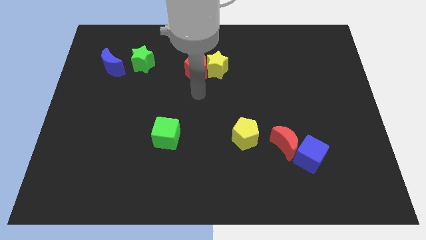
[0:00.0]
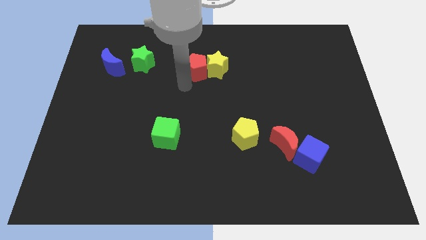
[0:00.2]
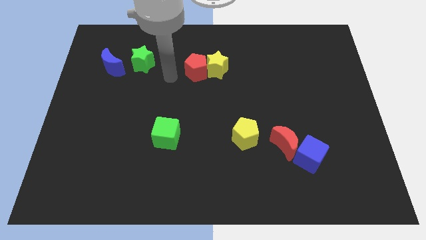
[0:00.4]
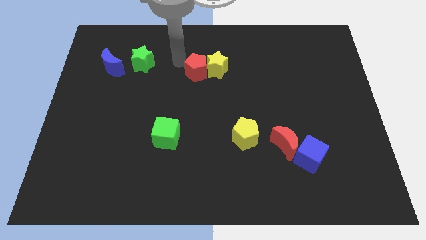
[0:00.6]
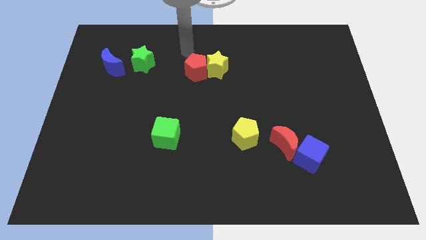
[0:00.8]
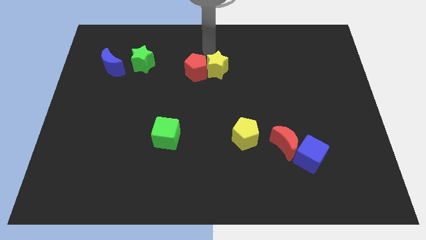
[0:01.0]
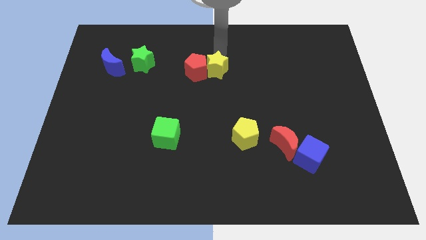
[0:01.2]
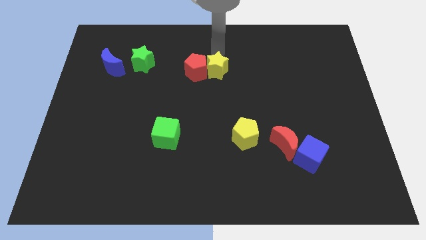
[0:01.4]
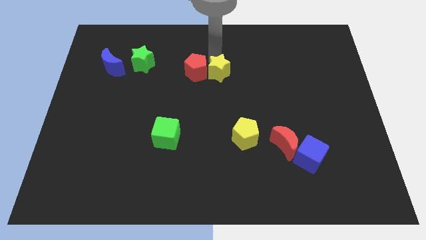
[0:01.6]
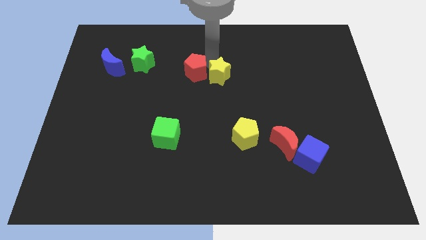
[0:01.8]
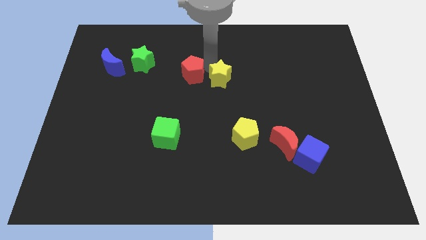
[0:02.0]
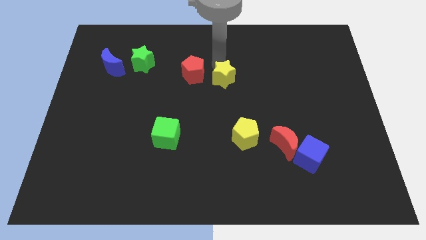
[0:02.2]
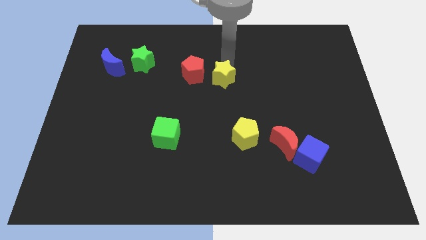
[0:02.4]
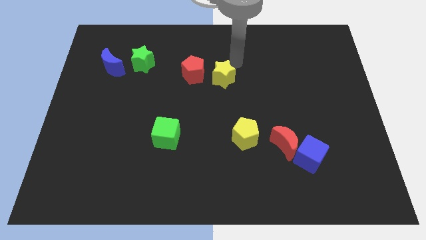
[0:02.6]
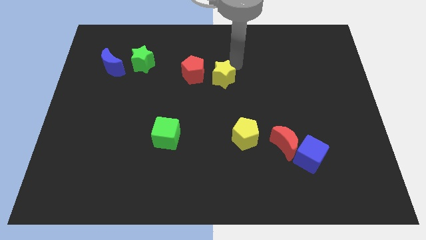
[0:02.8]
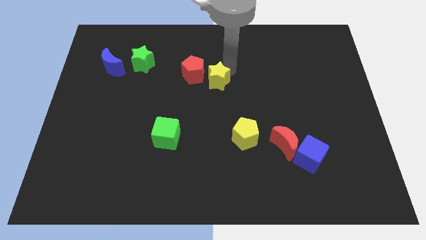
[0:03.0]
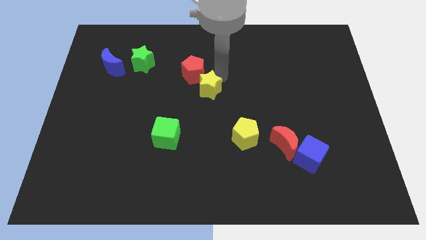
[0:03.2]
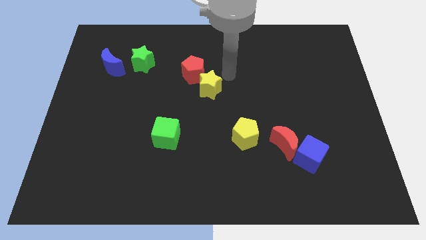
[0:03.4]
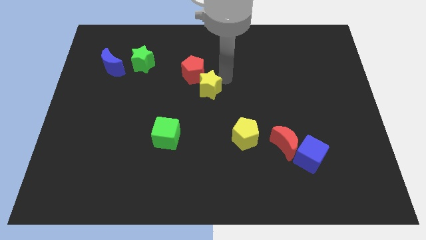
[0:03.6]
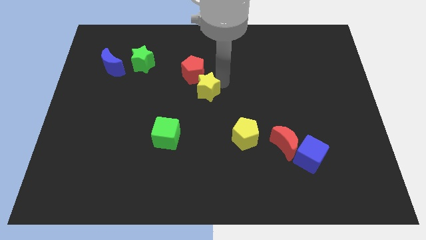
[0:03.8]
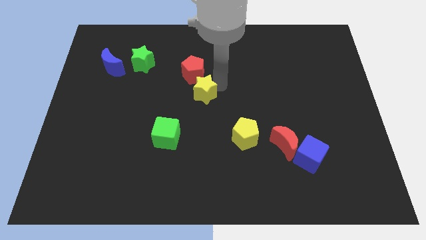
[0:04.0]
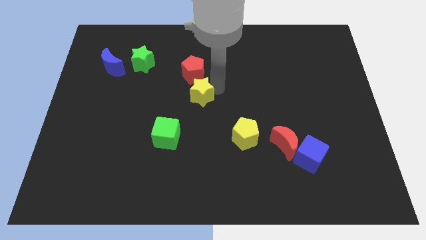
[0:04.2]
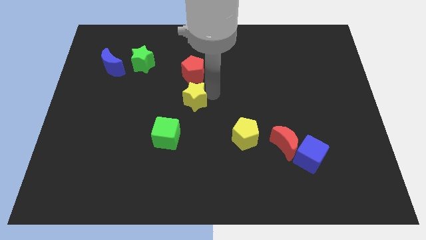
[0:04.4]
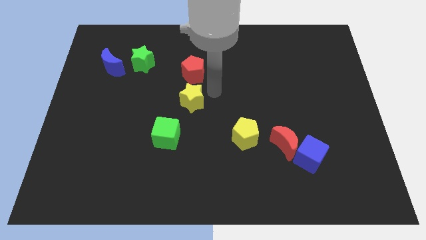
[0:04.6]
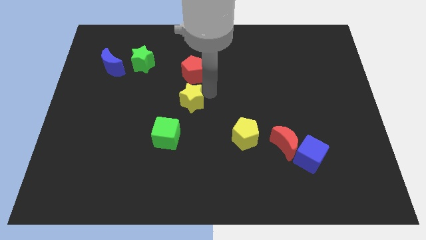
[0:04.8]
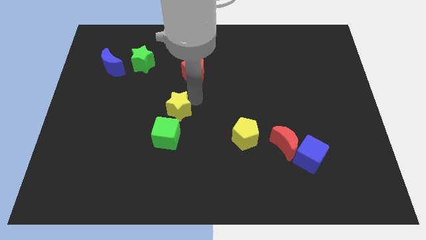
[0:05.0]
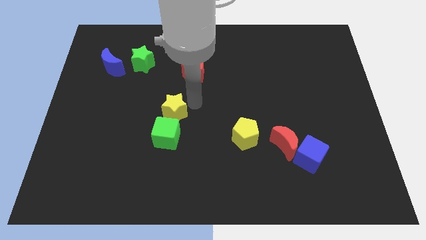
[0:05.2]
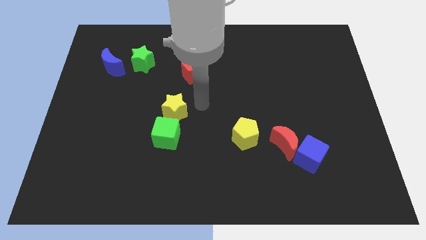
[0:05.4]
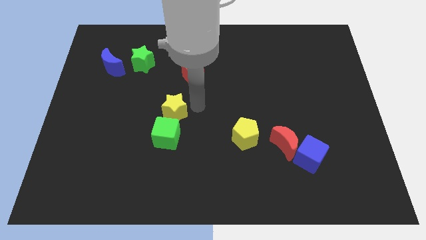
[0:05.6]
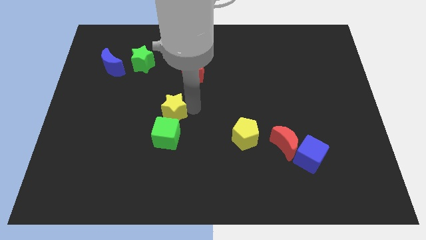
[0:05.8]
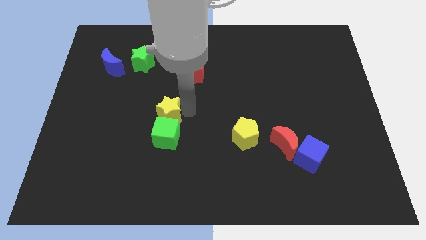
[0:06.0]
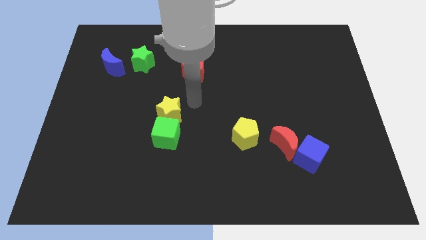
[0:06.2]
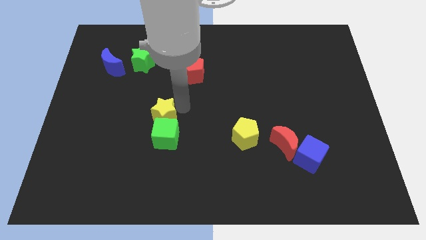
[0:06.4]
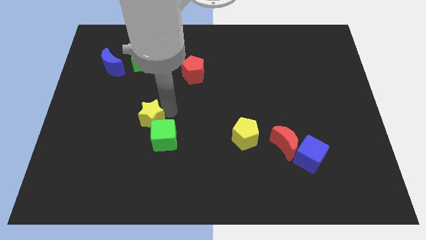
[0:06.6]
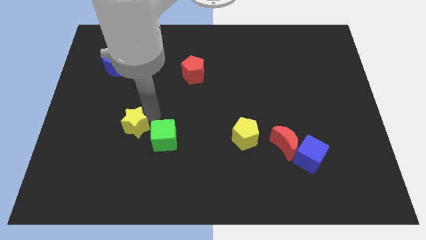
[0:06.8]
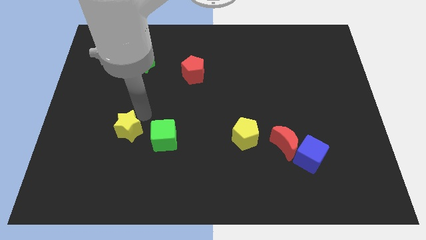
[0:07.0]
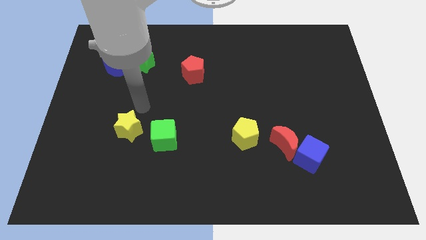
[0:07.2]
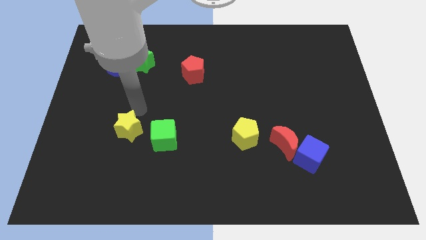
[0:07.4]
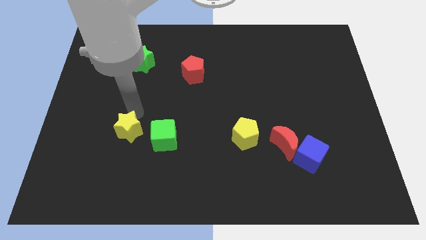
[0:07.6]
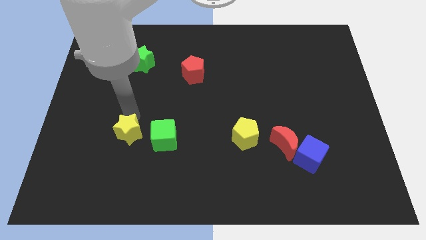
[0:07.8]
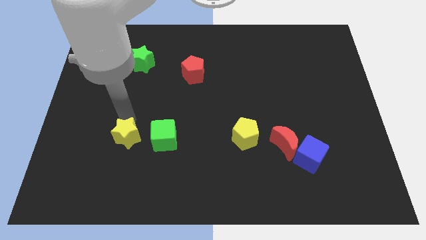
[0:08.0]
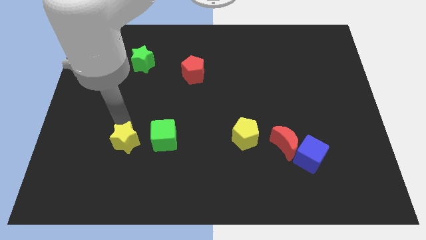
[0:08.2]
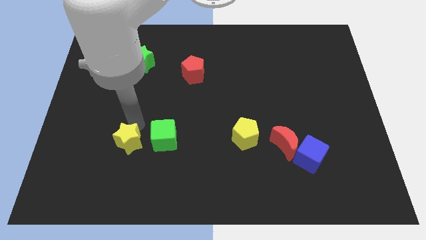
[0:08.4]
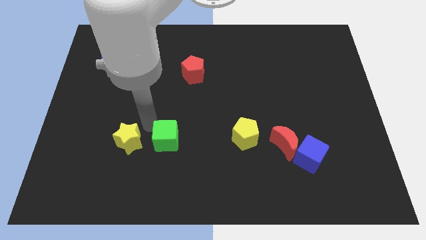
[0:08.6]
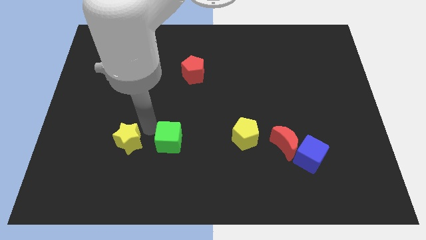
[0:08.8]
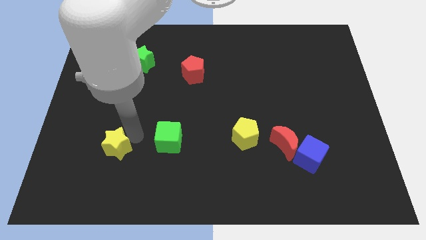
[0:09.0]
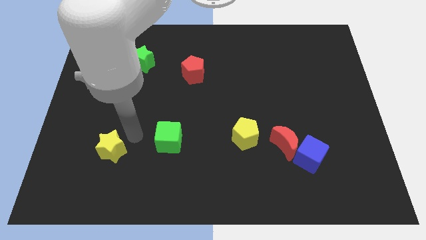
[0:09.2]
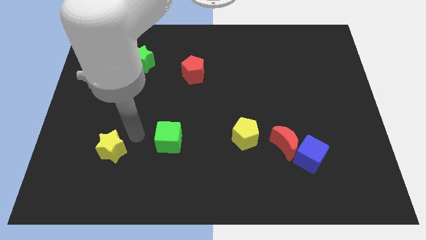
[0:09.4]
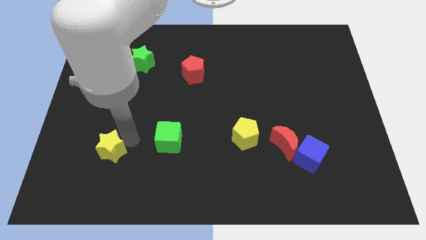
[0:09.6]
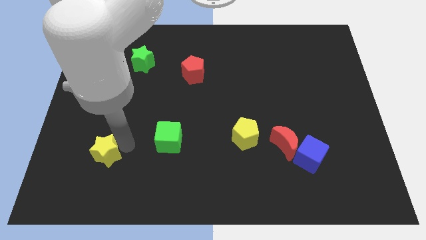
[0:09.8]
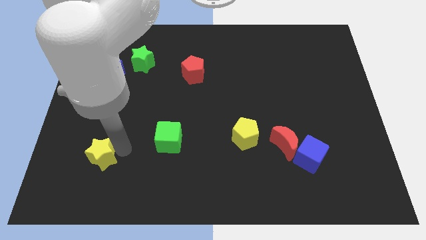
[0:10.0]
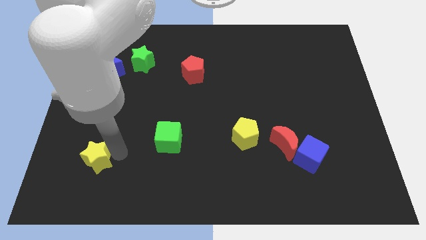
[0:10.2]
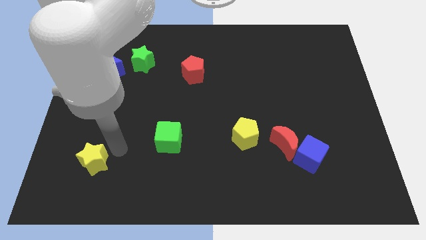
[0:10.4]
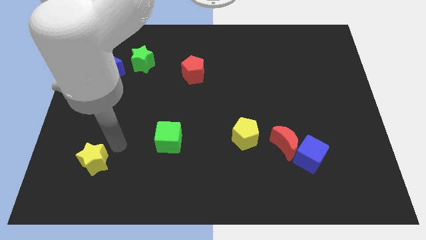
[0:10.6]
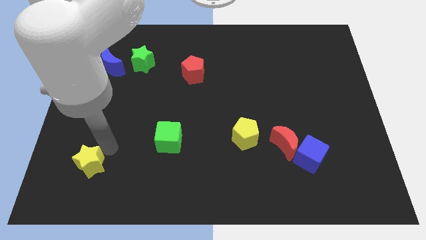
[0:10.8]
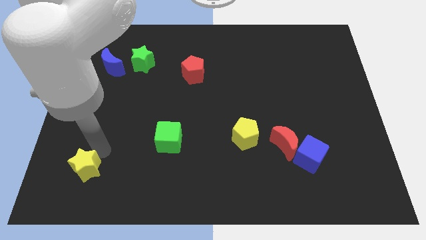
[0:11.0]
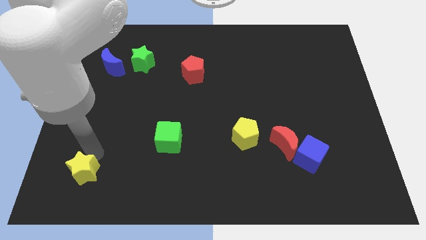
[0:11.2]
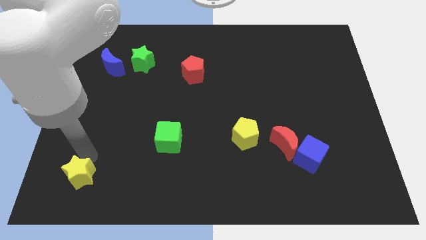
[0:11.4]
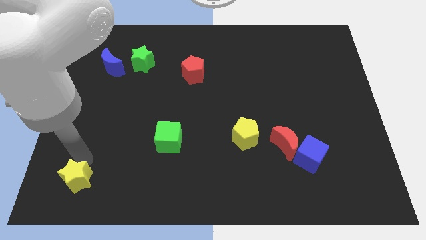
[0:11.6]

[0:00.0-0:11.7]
move the yellow star to the bottom left

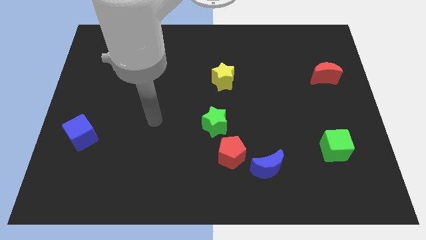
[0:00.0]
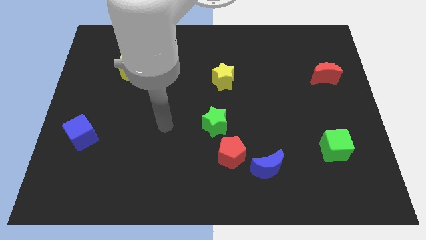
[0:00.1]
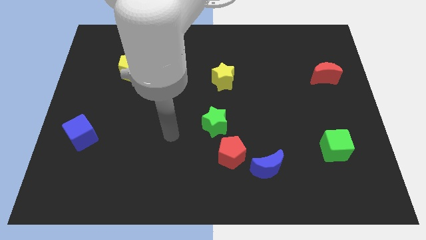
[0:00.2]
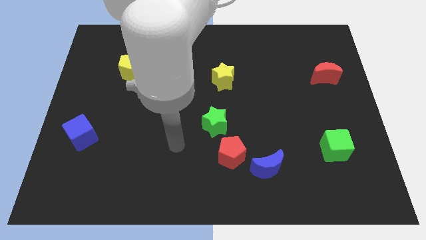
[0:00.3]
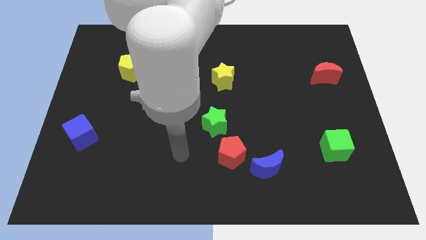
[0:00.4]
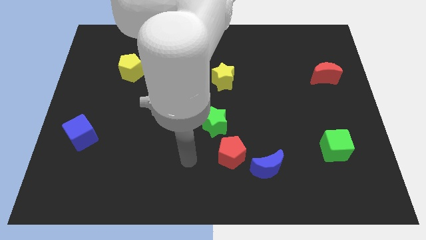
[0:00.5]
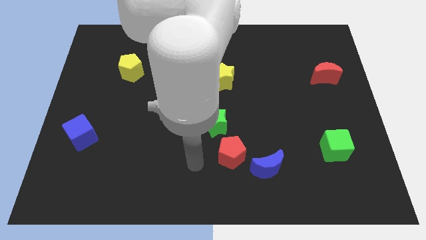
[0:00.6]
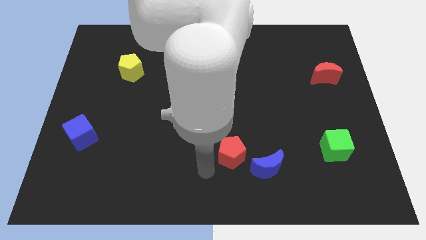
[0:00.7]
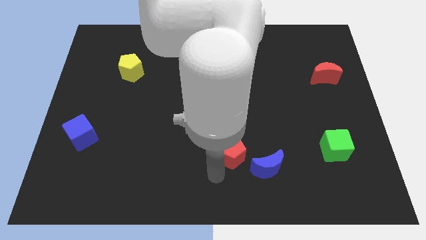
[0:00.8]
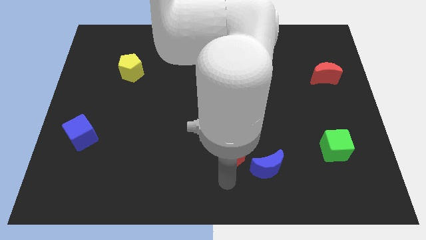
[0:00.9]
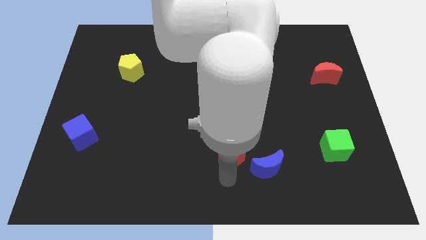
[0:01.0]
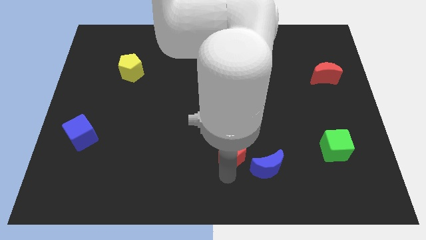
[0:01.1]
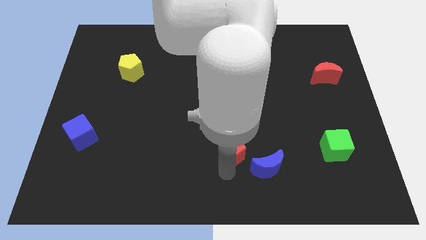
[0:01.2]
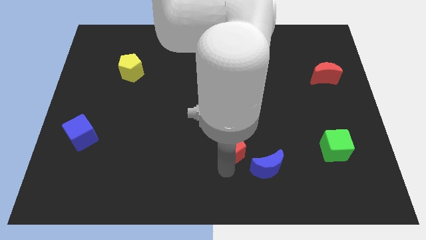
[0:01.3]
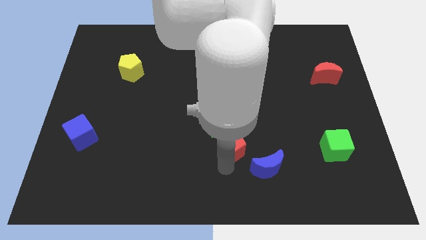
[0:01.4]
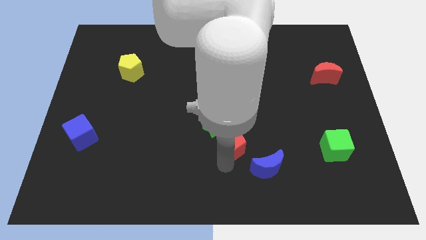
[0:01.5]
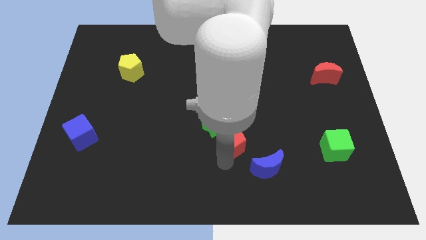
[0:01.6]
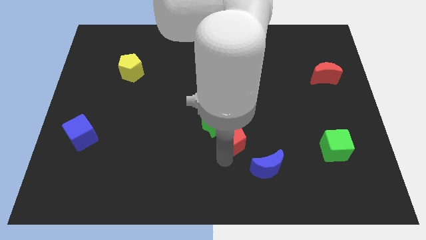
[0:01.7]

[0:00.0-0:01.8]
put the red pentagon to the middle
